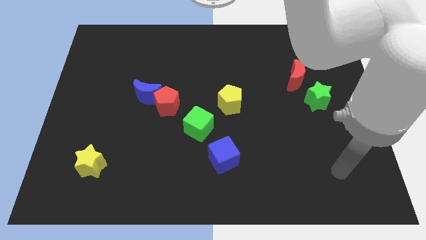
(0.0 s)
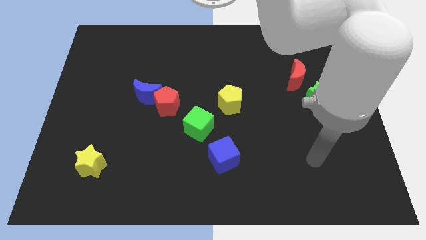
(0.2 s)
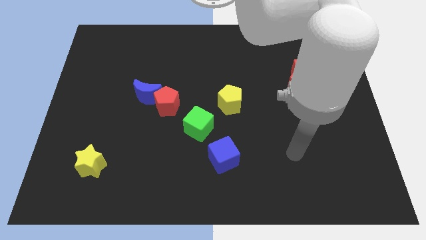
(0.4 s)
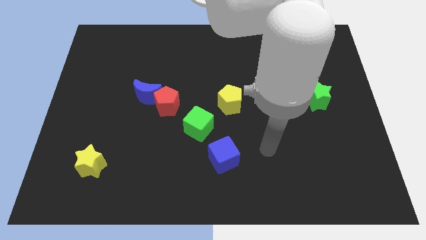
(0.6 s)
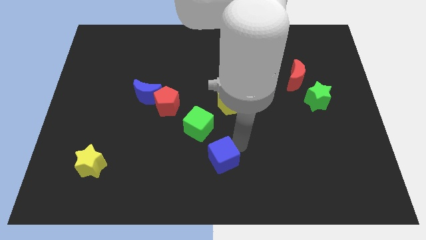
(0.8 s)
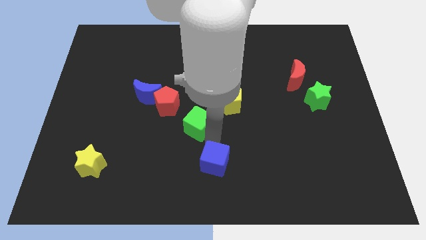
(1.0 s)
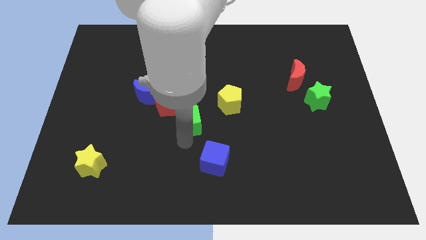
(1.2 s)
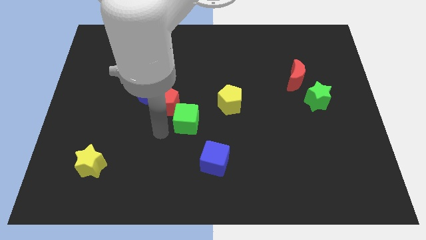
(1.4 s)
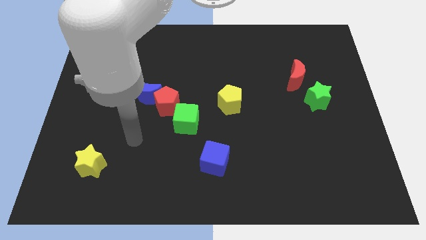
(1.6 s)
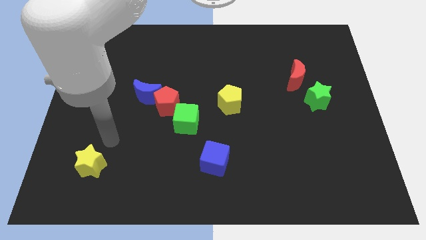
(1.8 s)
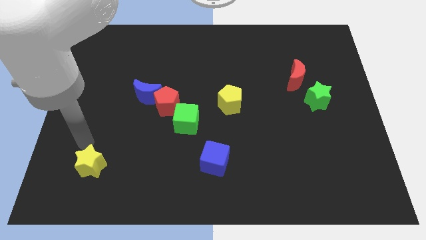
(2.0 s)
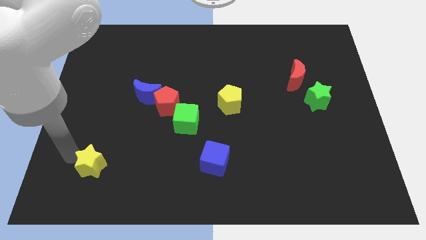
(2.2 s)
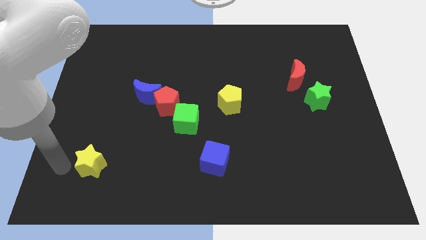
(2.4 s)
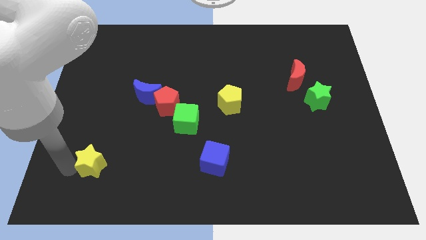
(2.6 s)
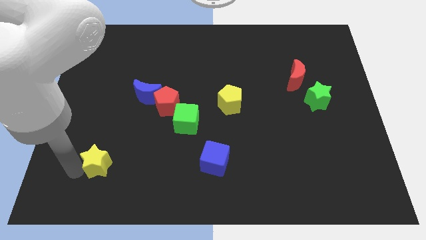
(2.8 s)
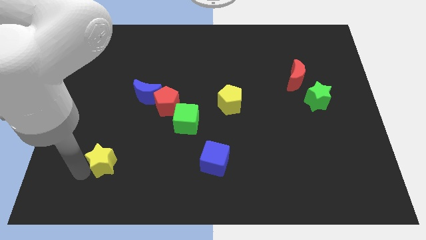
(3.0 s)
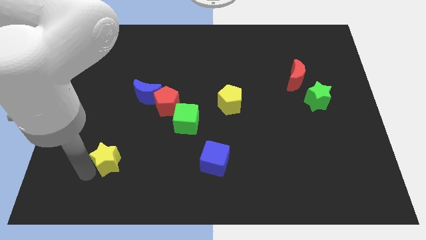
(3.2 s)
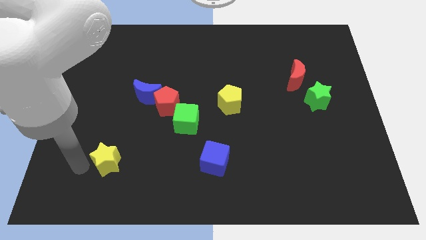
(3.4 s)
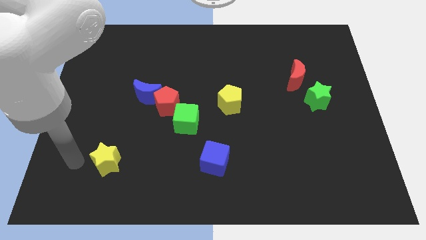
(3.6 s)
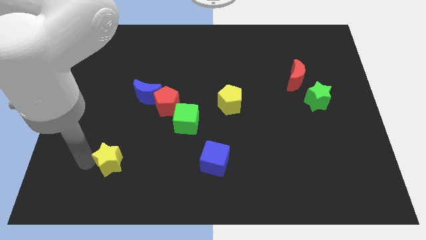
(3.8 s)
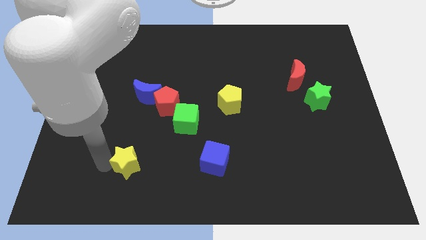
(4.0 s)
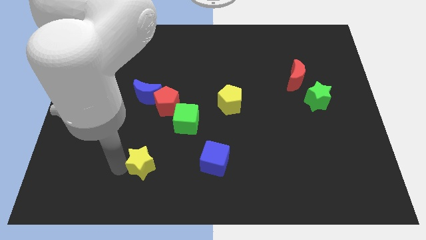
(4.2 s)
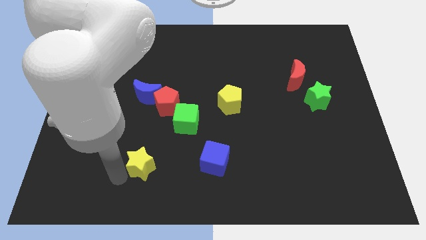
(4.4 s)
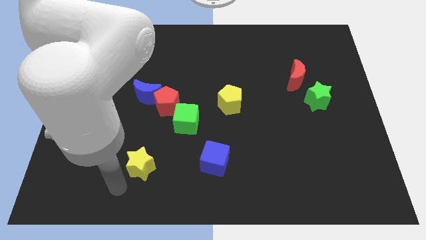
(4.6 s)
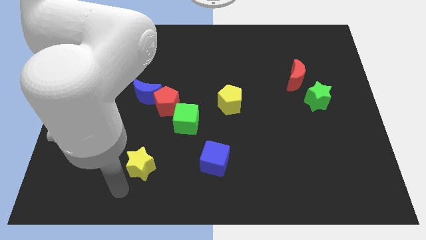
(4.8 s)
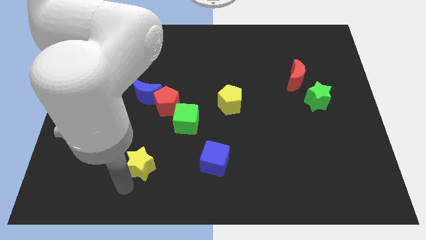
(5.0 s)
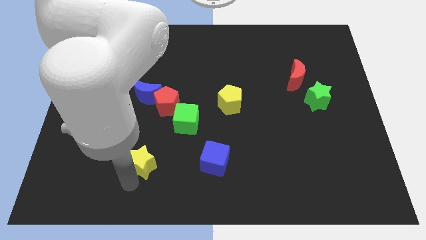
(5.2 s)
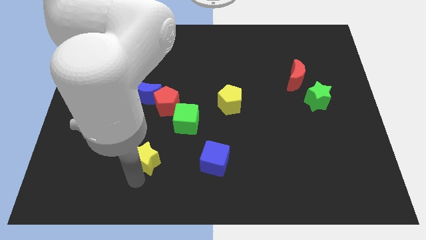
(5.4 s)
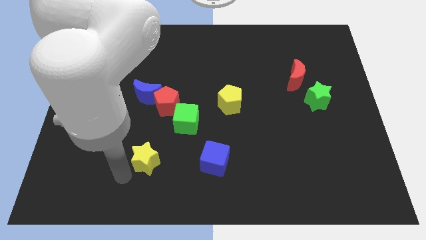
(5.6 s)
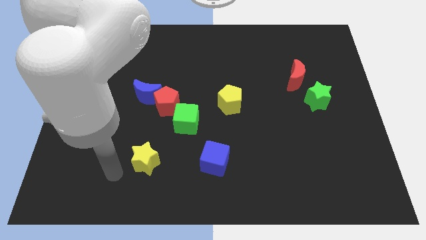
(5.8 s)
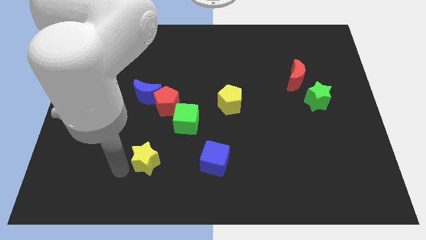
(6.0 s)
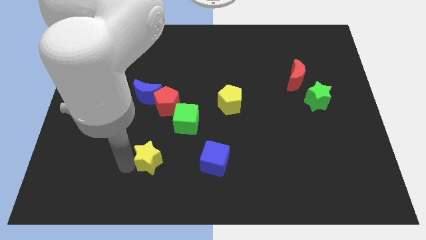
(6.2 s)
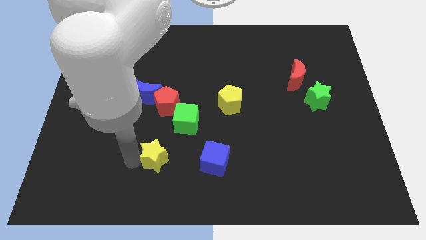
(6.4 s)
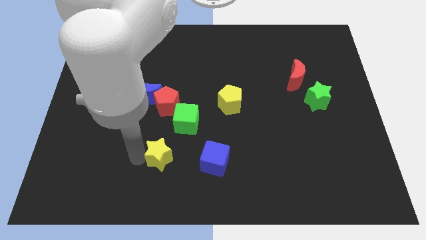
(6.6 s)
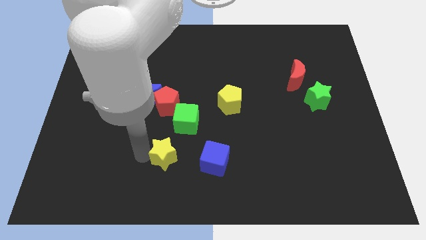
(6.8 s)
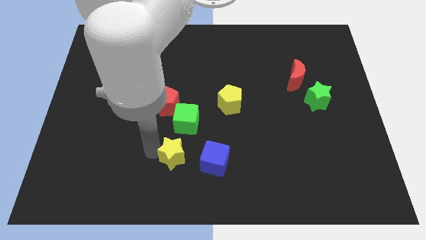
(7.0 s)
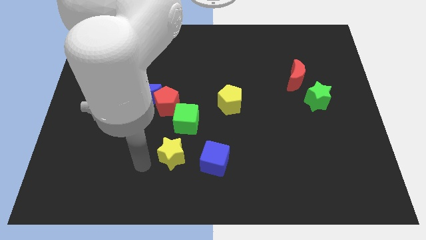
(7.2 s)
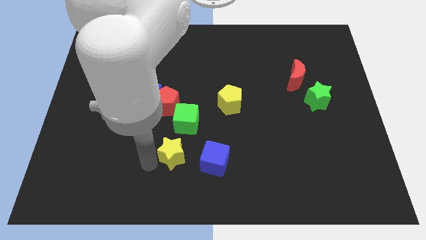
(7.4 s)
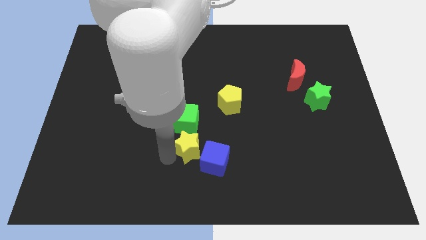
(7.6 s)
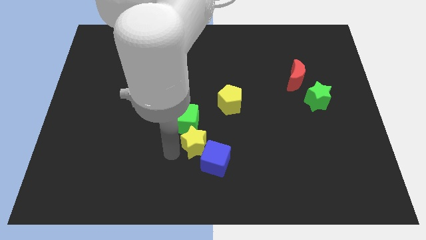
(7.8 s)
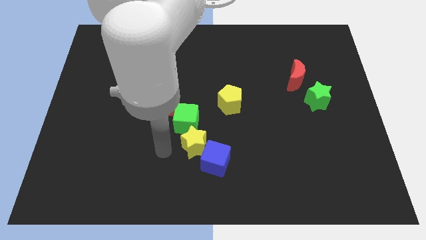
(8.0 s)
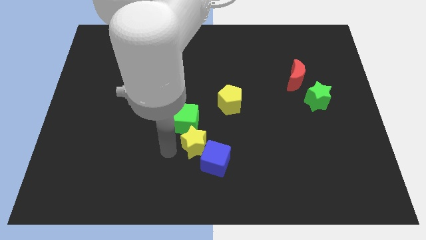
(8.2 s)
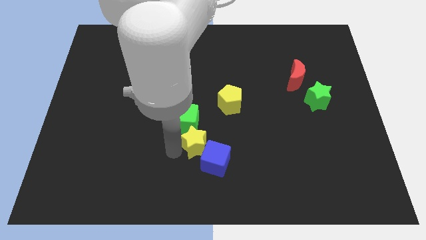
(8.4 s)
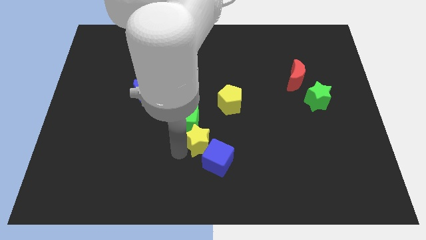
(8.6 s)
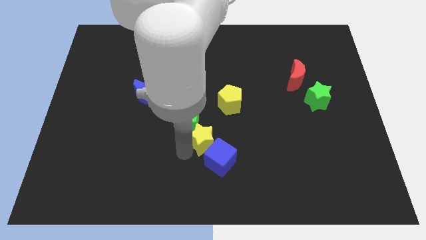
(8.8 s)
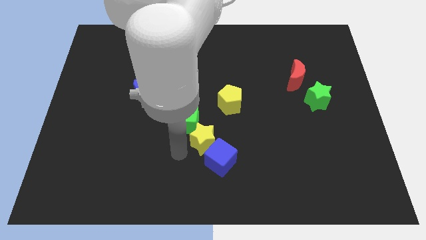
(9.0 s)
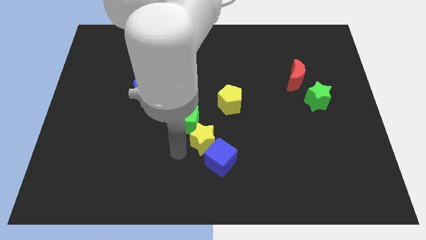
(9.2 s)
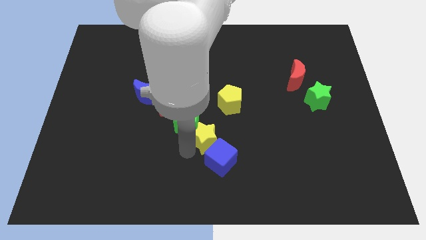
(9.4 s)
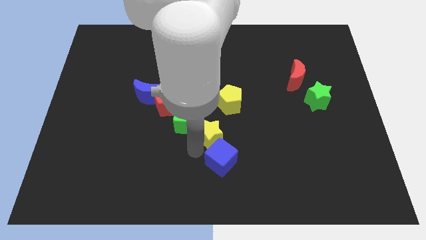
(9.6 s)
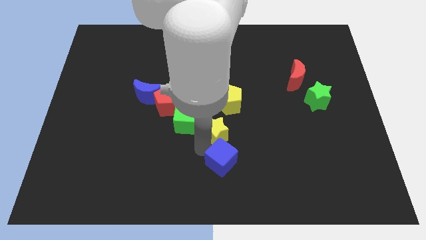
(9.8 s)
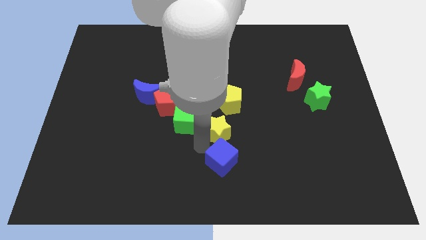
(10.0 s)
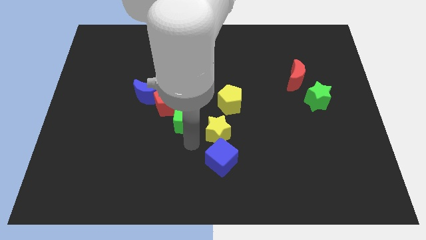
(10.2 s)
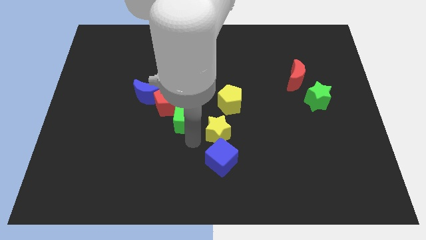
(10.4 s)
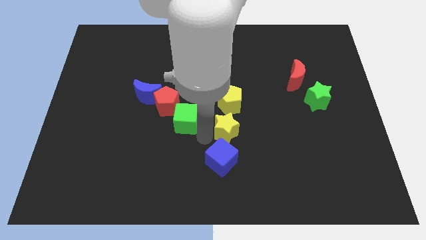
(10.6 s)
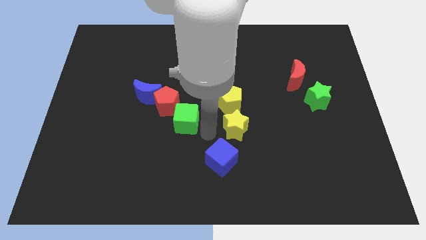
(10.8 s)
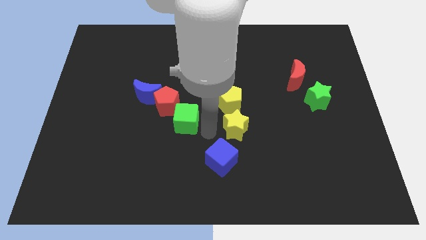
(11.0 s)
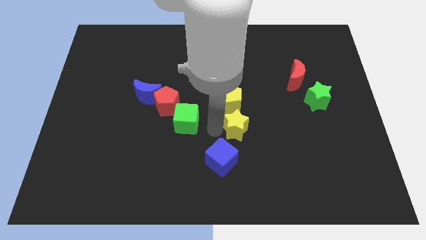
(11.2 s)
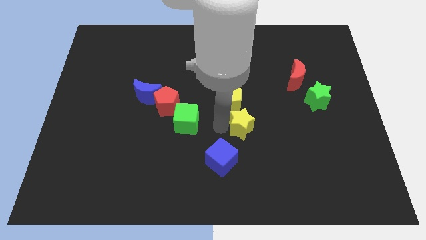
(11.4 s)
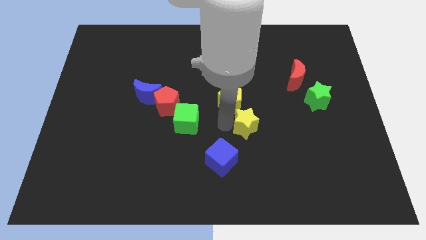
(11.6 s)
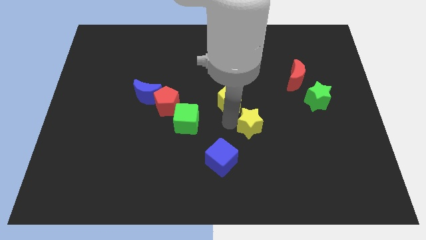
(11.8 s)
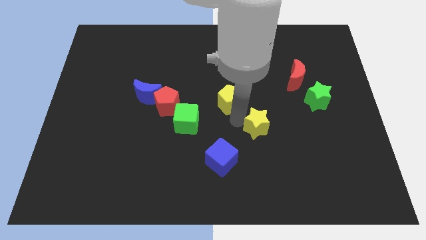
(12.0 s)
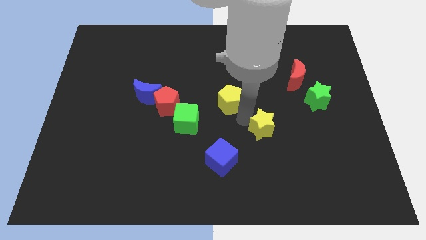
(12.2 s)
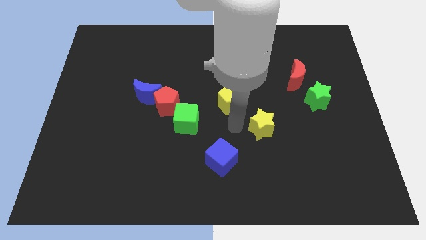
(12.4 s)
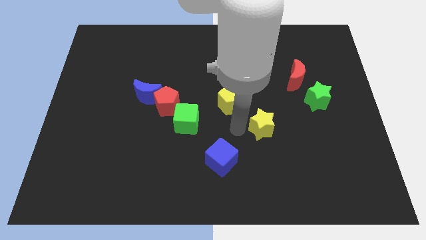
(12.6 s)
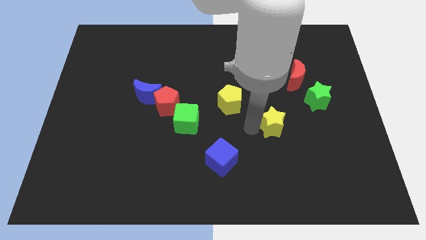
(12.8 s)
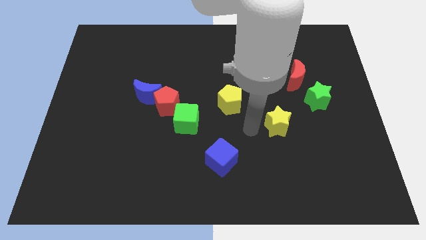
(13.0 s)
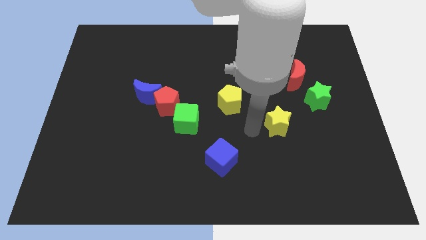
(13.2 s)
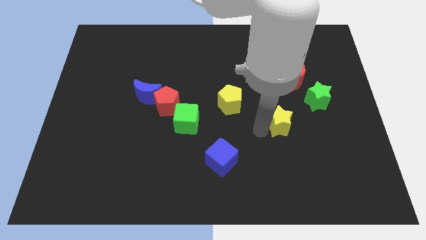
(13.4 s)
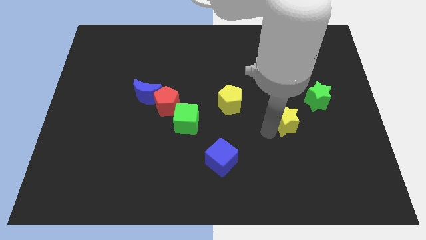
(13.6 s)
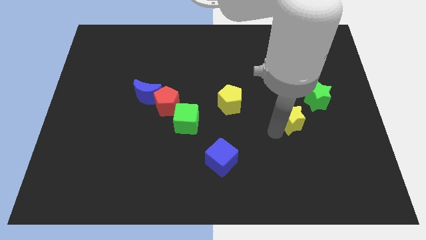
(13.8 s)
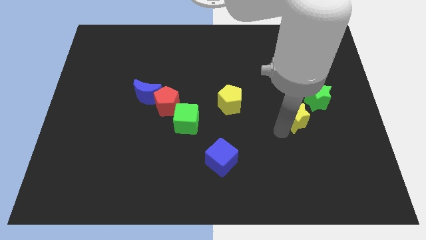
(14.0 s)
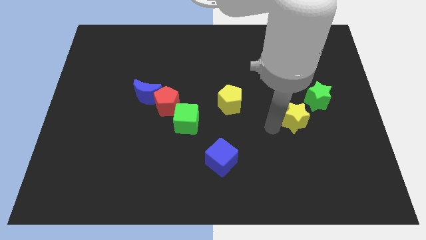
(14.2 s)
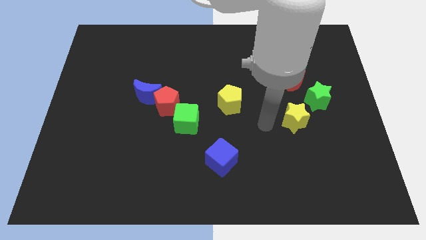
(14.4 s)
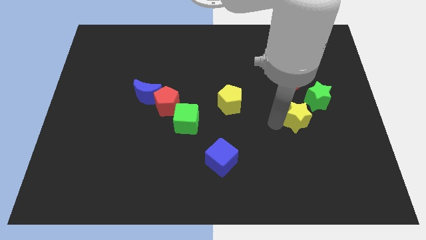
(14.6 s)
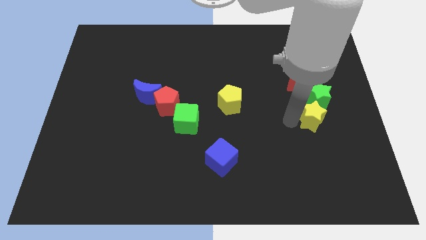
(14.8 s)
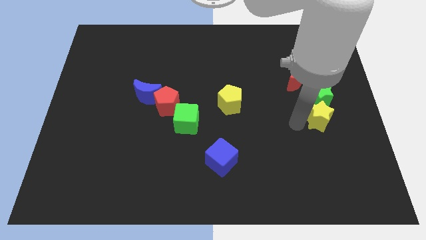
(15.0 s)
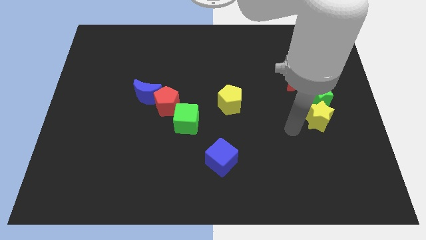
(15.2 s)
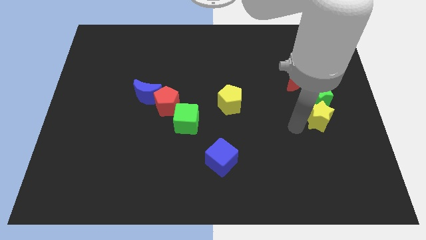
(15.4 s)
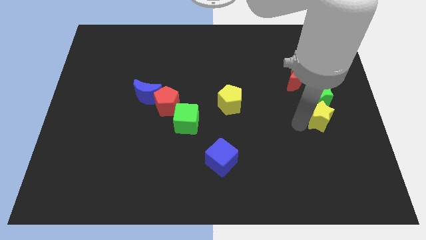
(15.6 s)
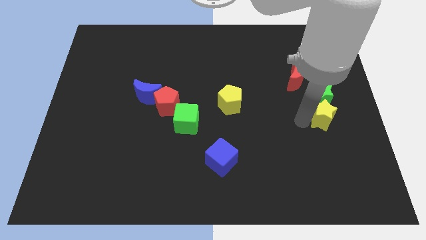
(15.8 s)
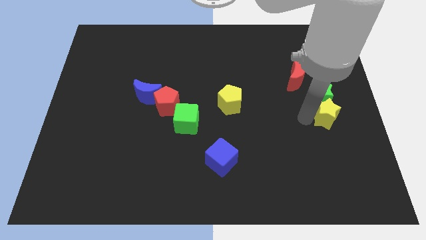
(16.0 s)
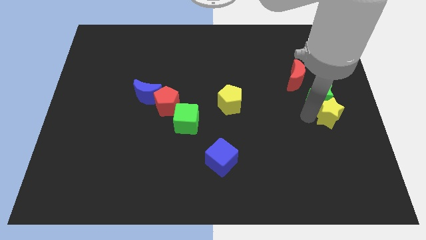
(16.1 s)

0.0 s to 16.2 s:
slide the yellow star to the right side of the board
